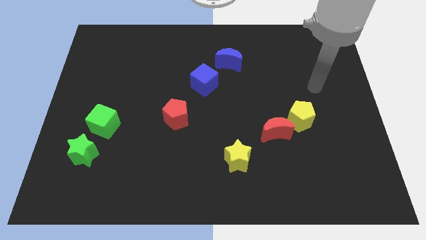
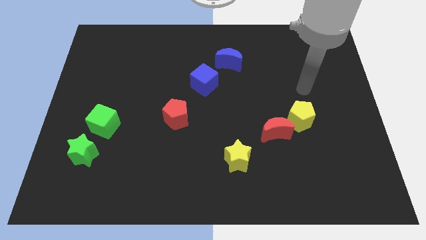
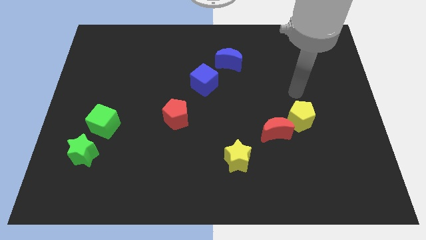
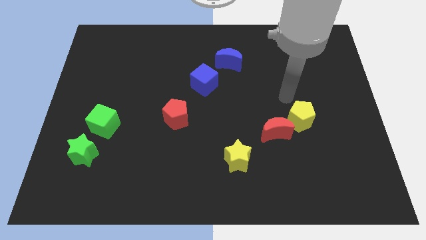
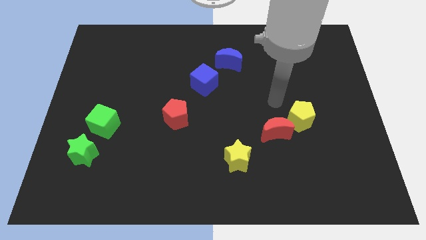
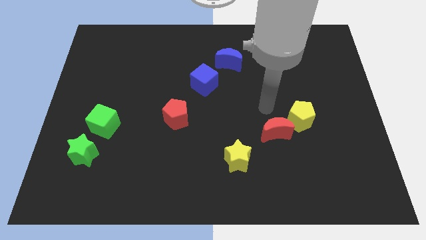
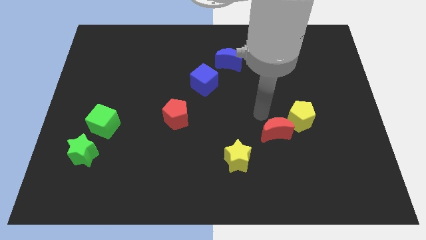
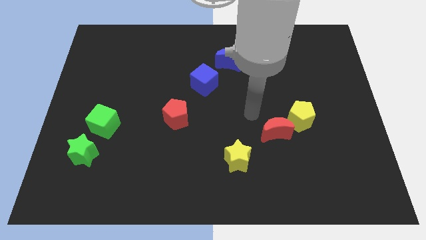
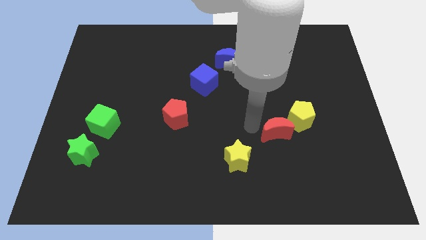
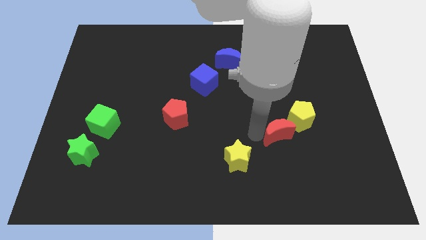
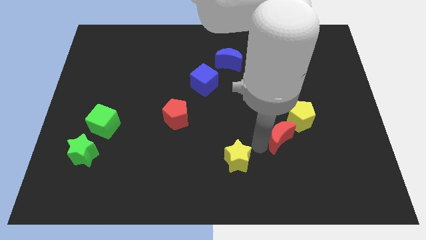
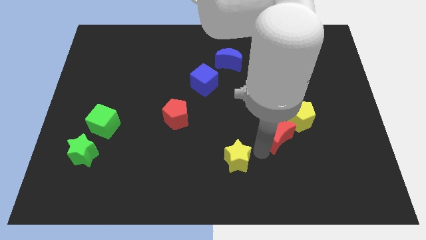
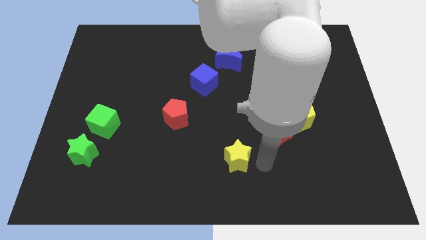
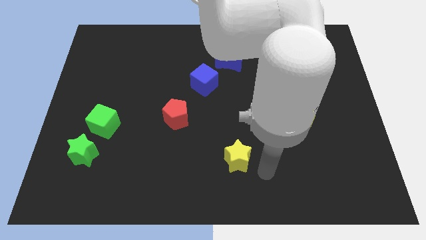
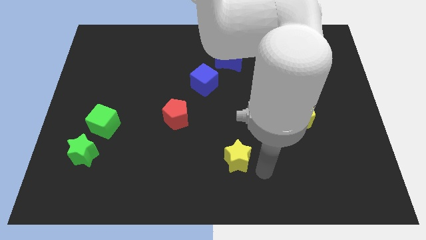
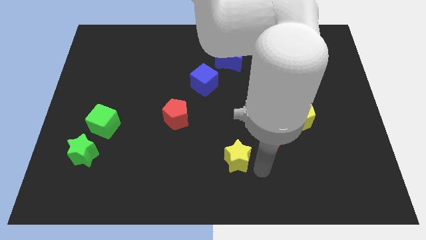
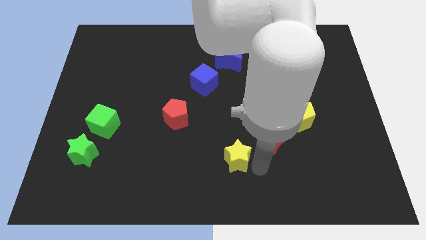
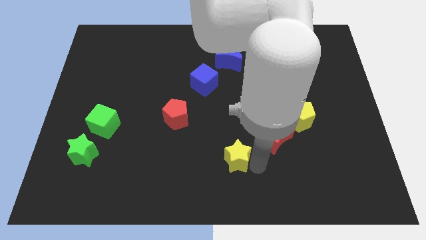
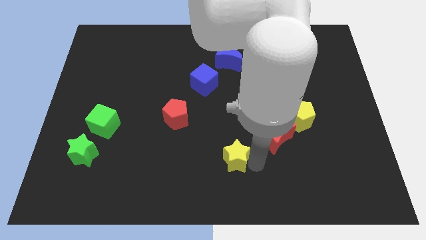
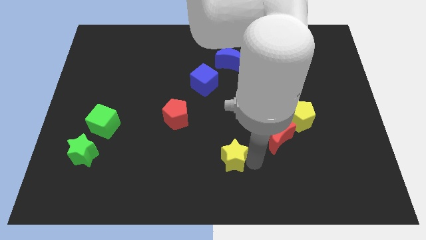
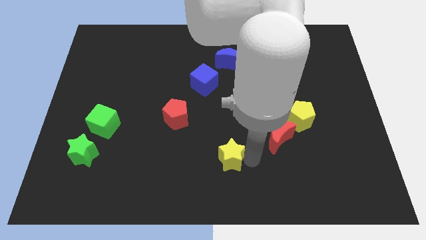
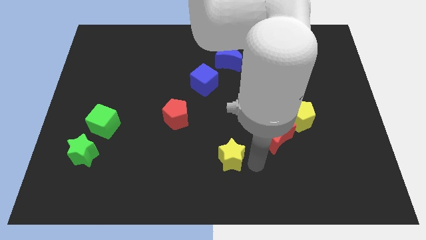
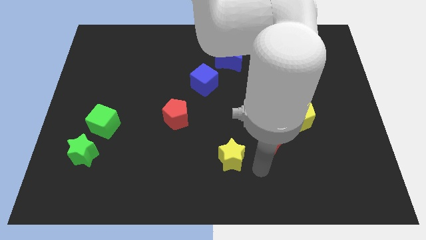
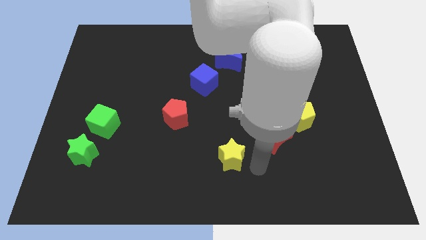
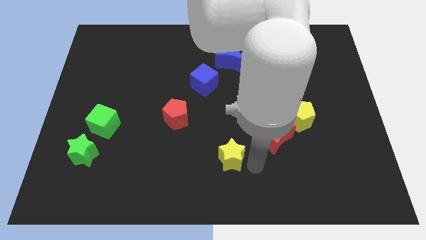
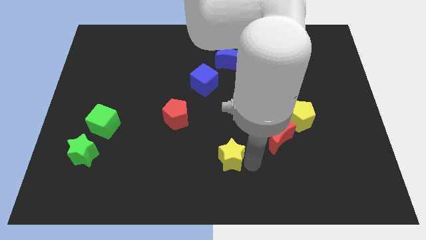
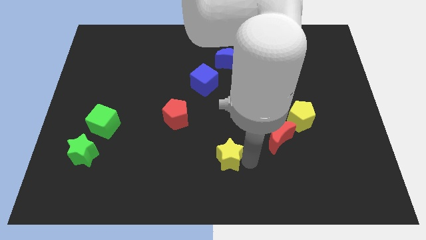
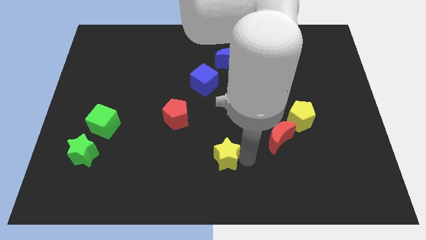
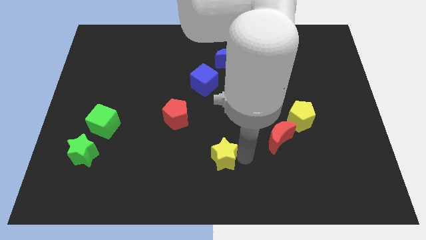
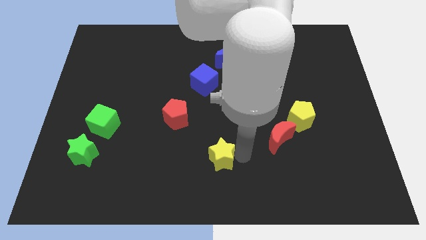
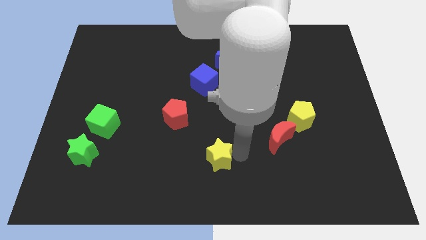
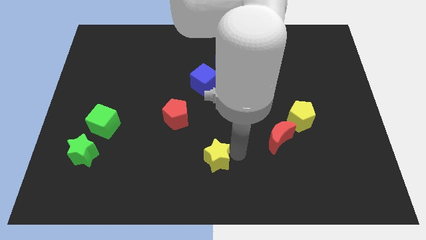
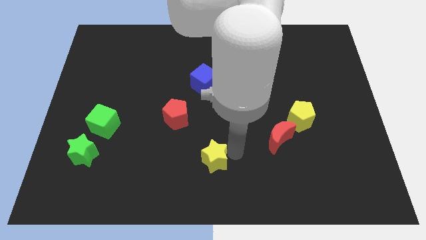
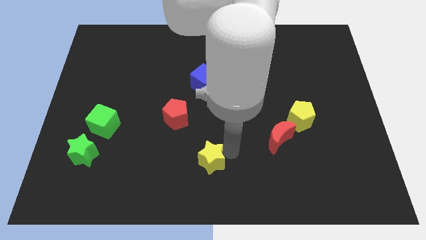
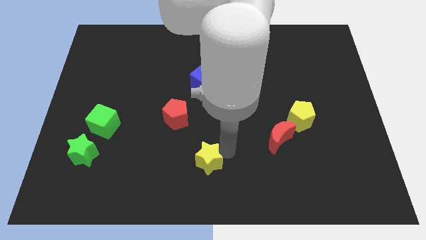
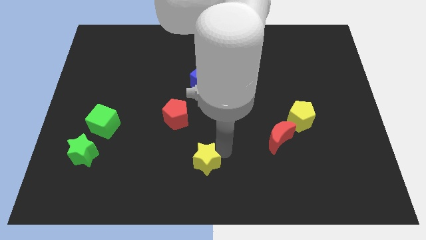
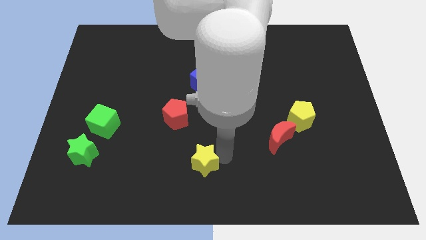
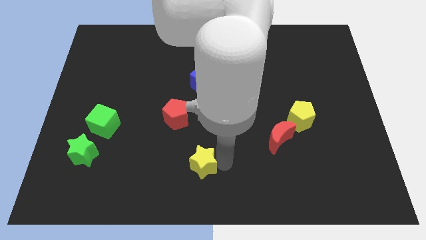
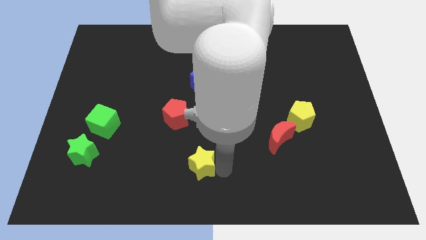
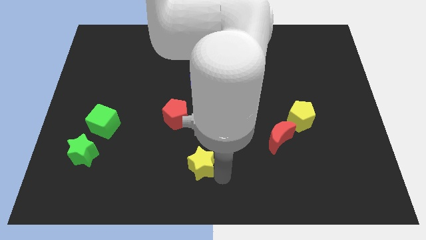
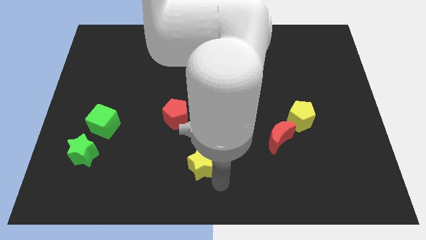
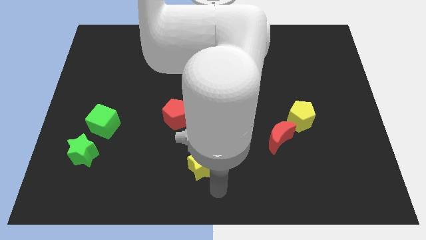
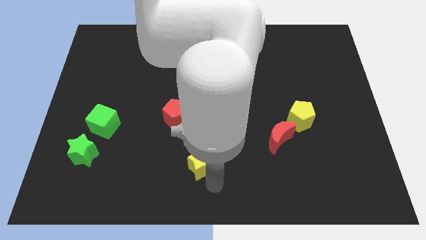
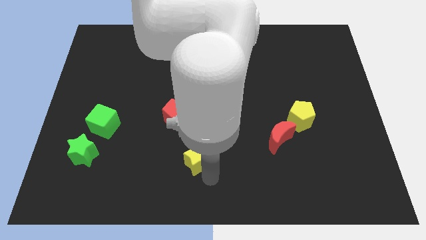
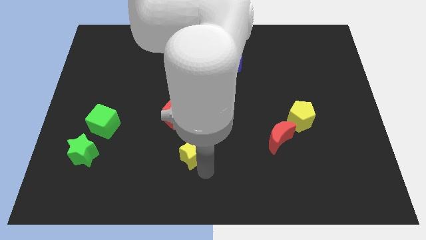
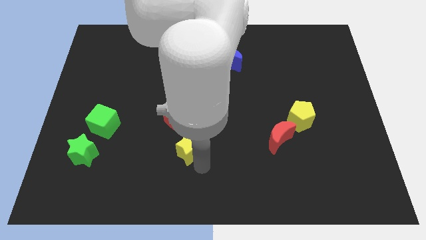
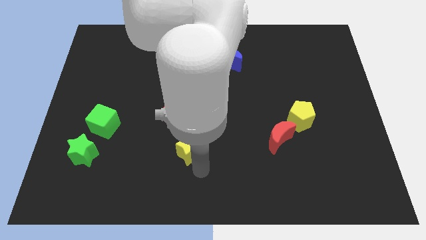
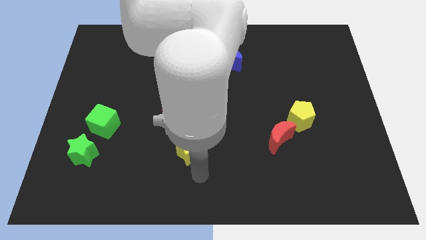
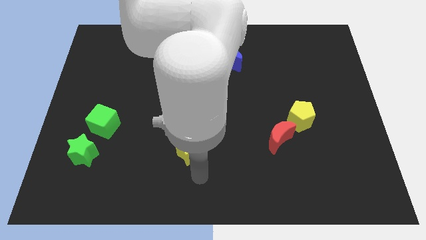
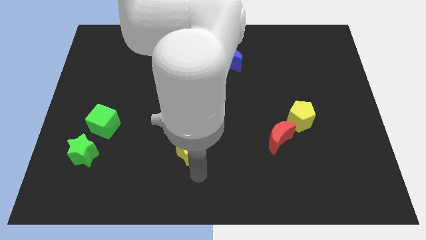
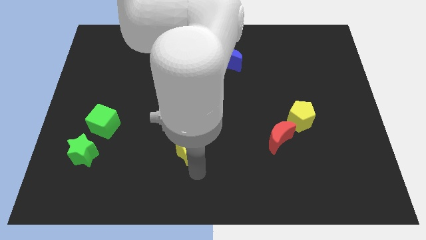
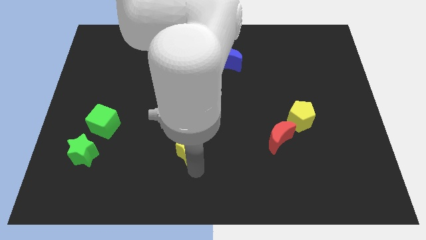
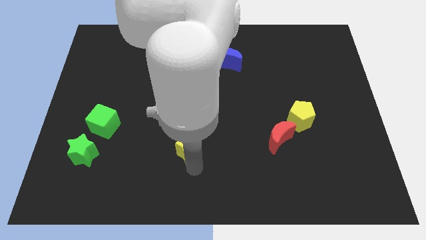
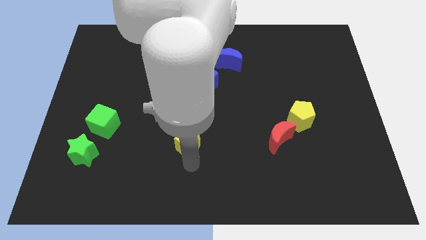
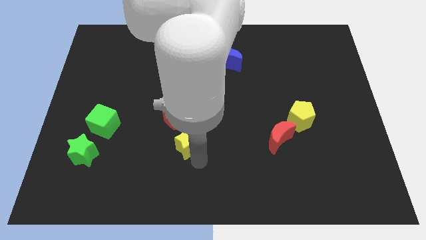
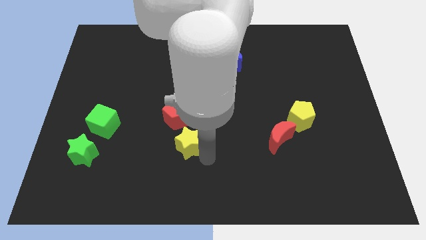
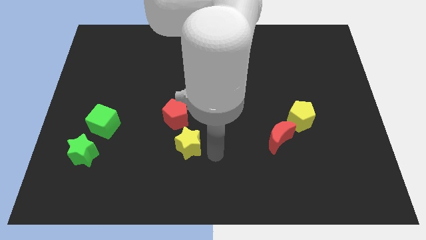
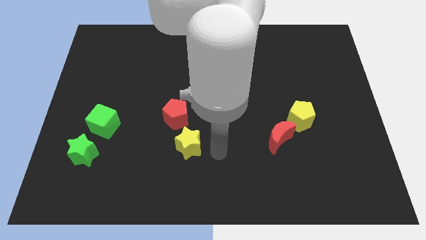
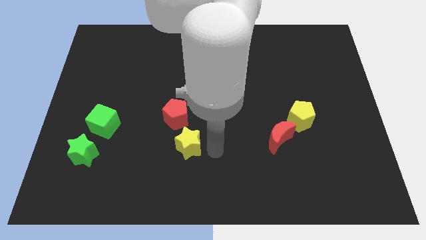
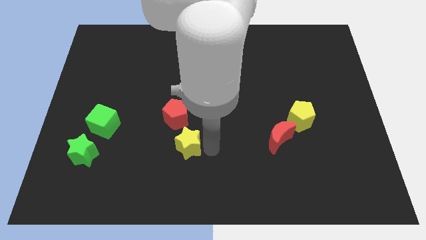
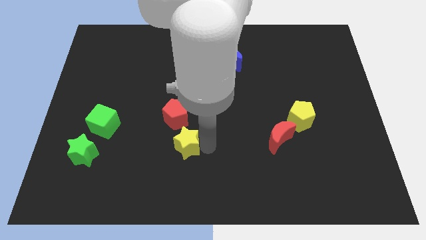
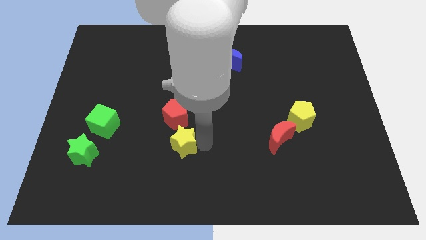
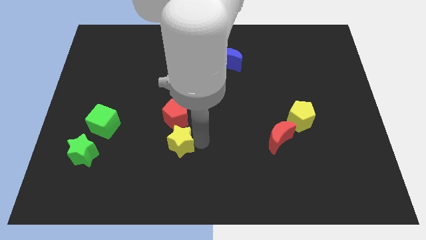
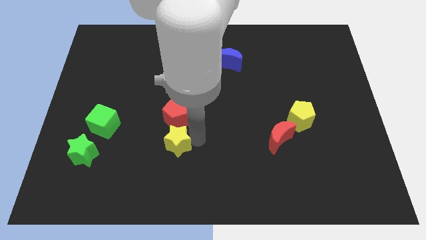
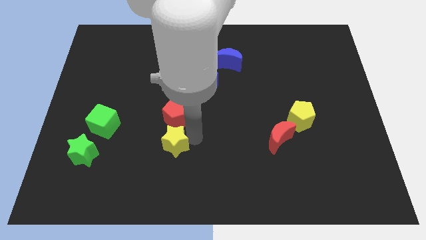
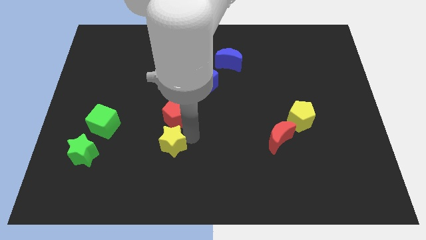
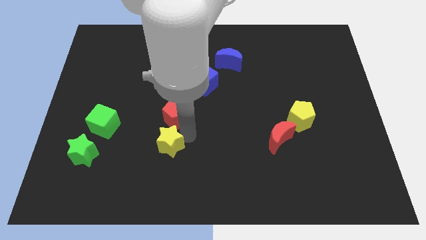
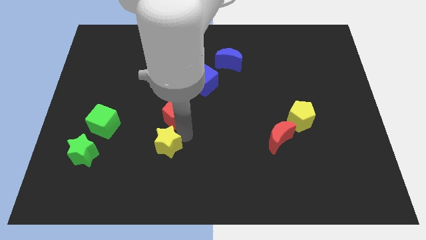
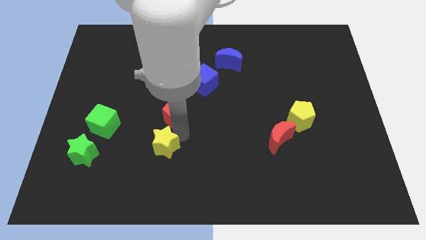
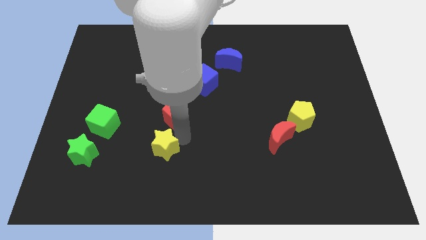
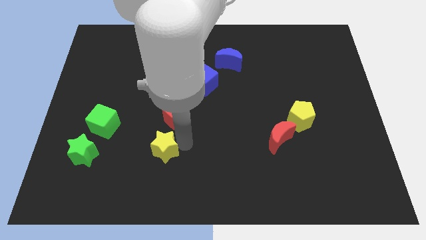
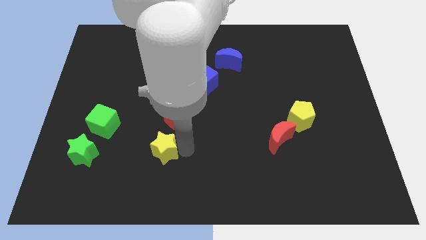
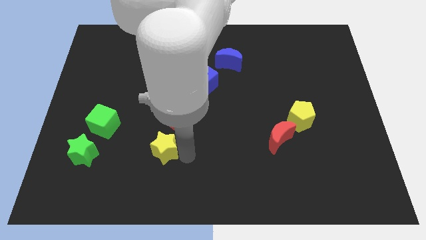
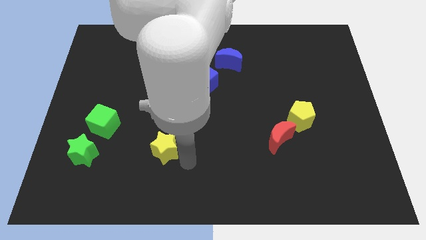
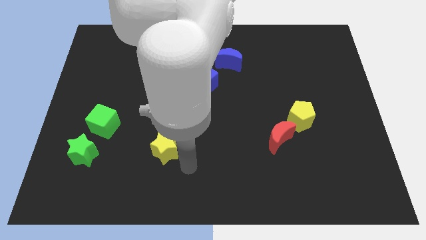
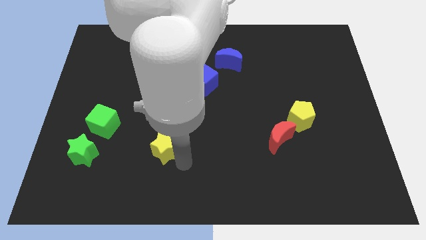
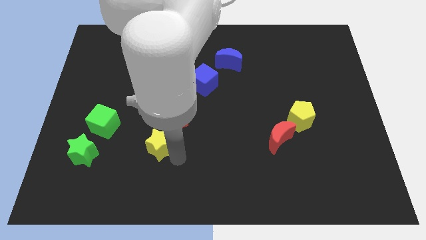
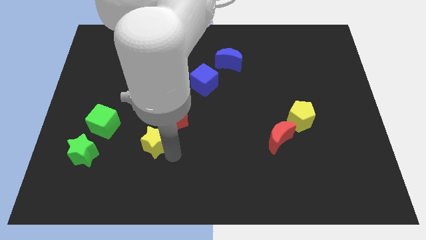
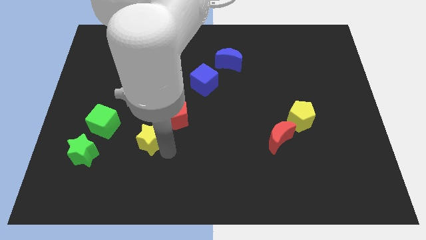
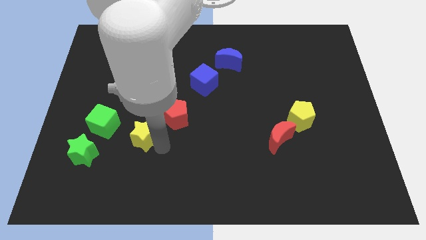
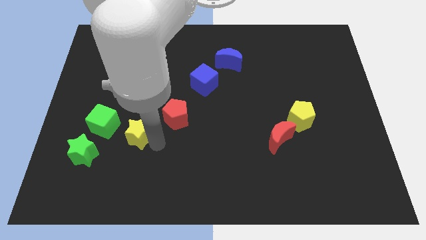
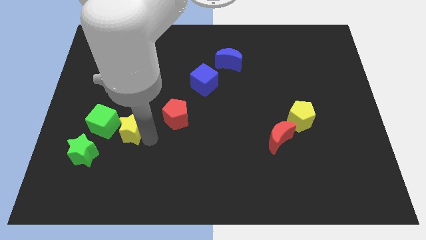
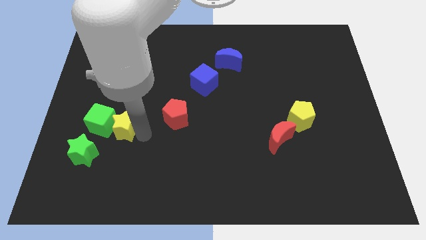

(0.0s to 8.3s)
push the yellow star close to the green cube
